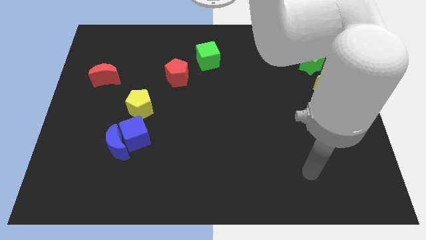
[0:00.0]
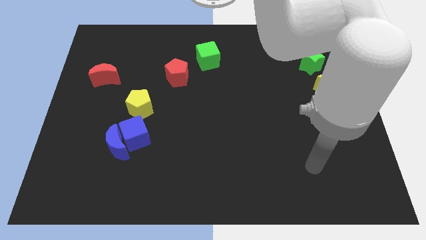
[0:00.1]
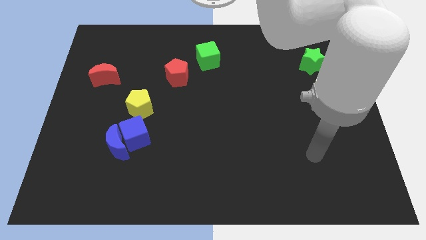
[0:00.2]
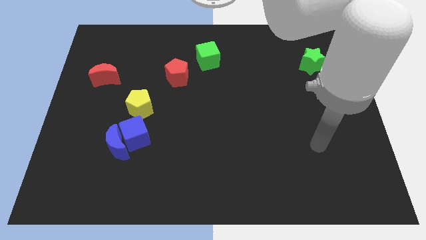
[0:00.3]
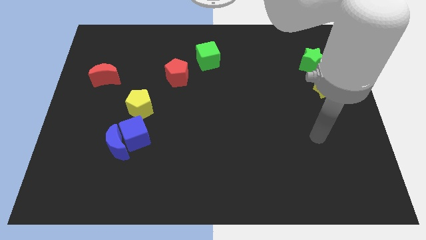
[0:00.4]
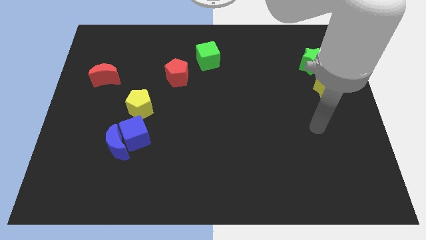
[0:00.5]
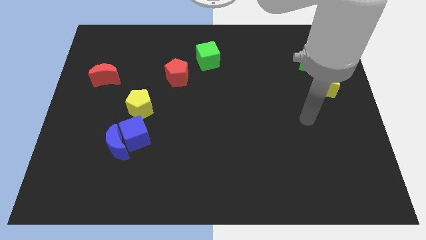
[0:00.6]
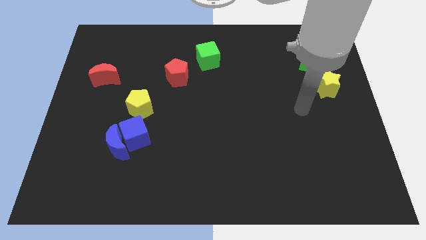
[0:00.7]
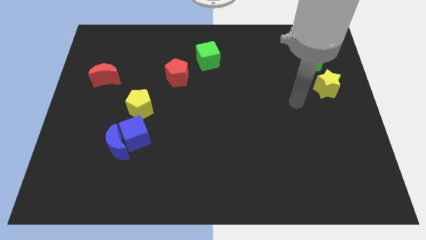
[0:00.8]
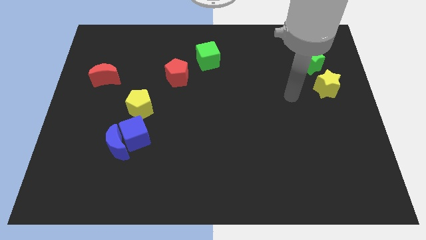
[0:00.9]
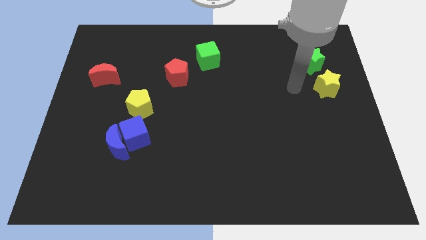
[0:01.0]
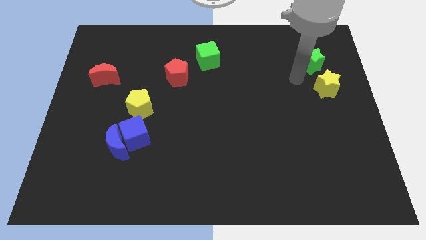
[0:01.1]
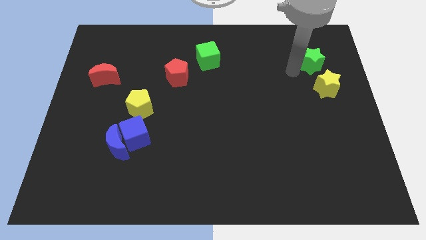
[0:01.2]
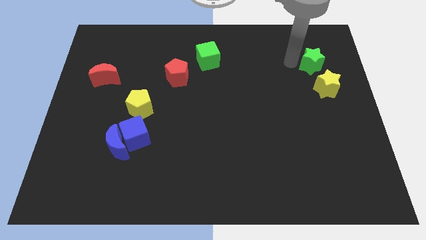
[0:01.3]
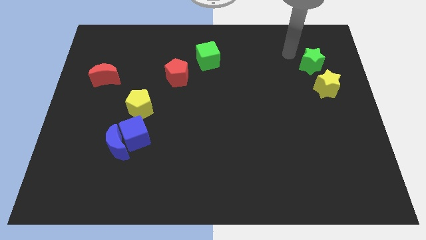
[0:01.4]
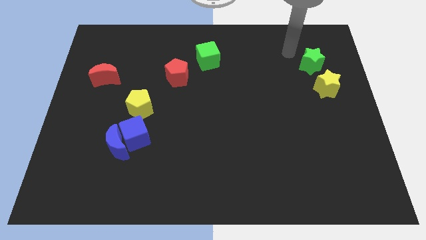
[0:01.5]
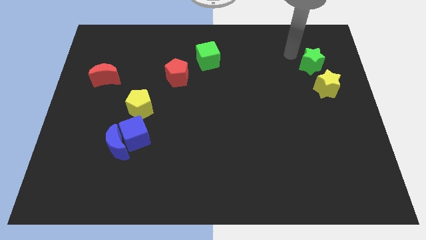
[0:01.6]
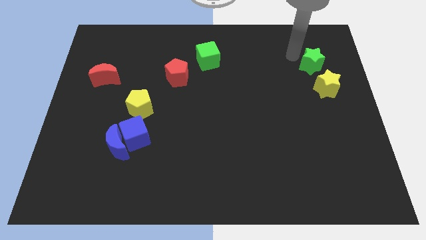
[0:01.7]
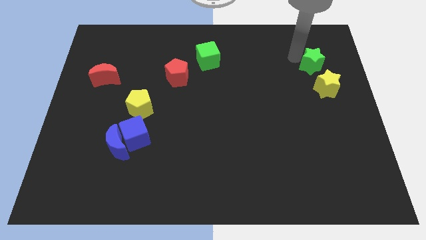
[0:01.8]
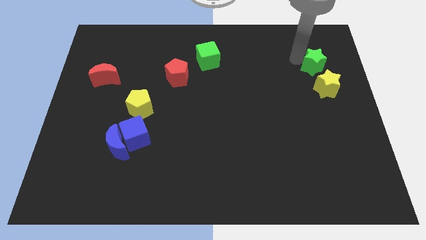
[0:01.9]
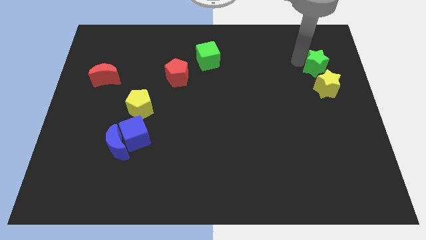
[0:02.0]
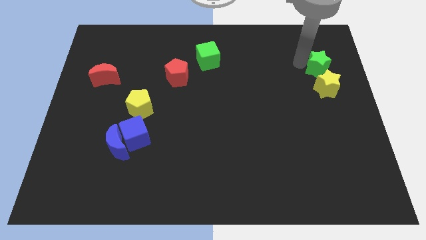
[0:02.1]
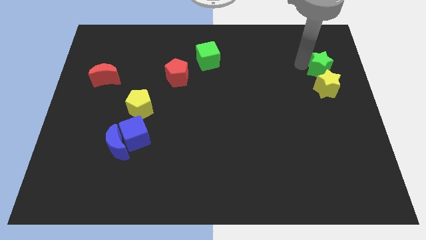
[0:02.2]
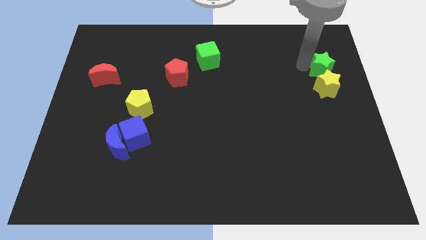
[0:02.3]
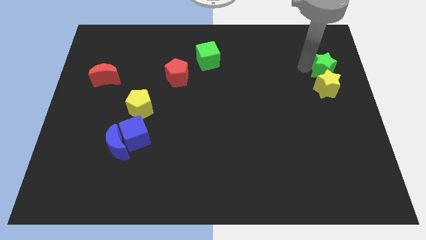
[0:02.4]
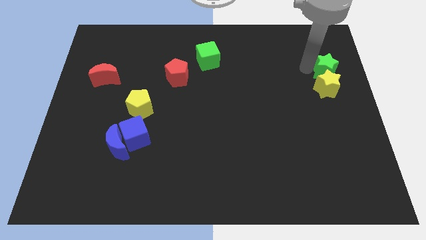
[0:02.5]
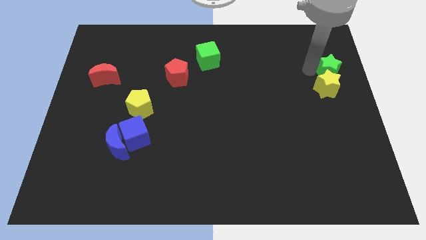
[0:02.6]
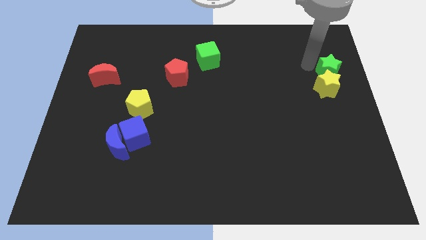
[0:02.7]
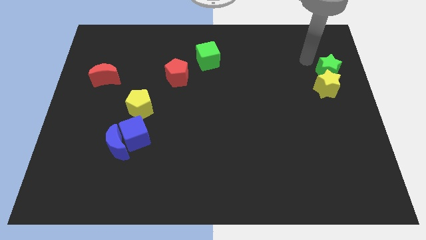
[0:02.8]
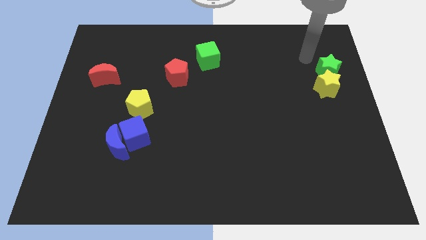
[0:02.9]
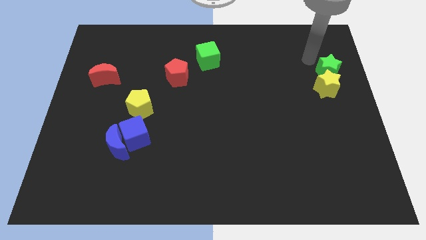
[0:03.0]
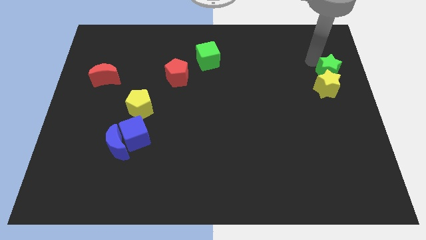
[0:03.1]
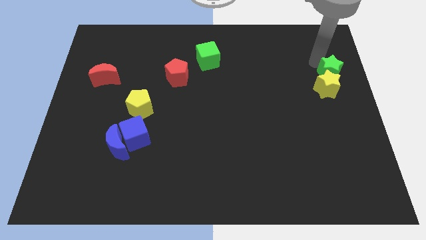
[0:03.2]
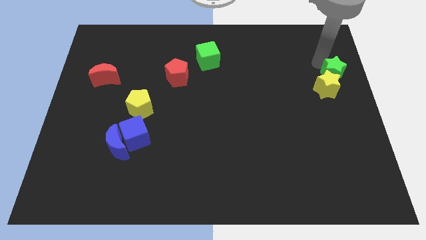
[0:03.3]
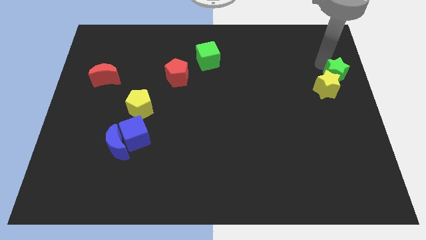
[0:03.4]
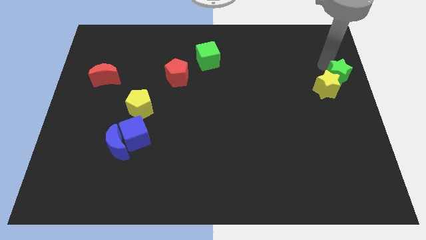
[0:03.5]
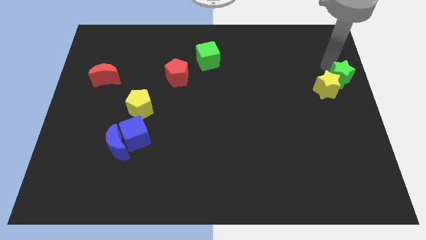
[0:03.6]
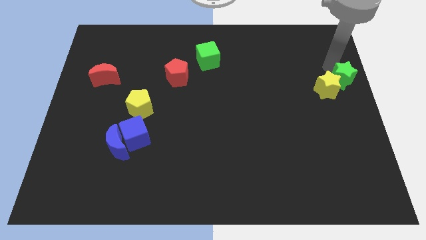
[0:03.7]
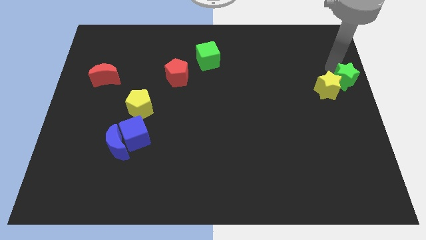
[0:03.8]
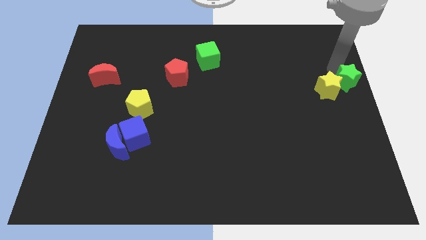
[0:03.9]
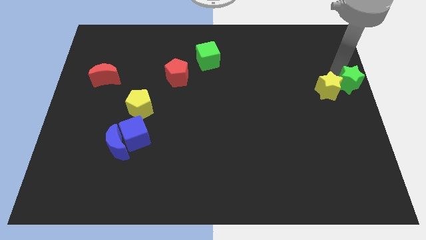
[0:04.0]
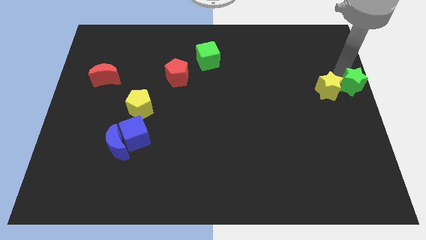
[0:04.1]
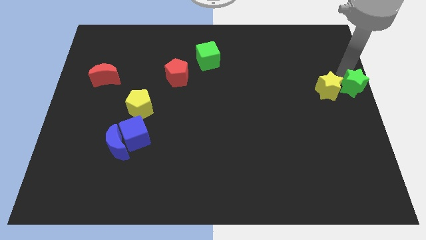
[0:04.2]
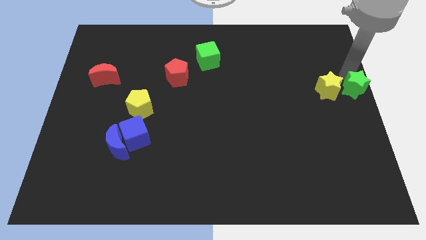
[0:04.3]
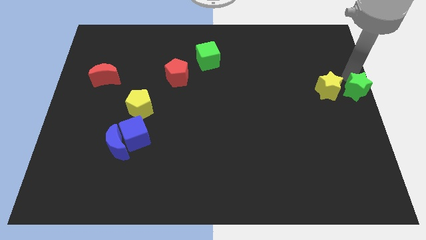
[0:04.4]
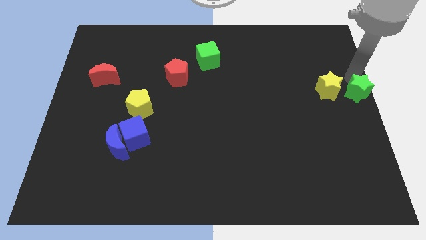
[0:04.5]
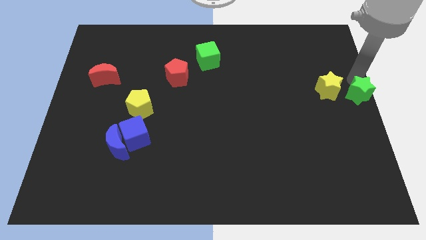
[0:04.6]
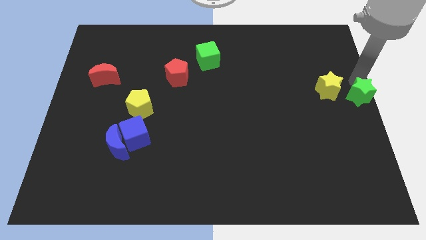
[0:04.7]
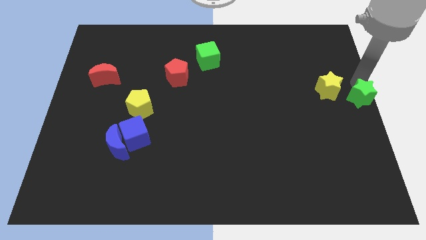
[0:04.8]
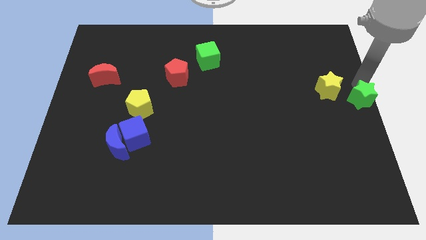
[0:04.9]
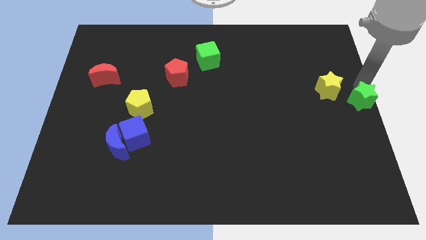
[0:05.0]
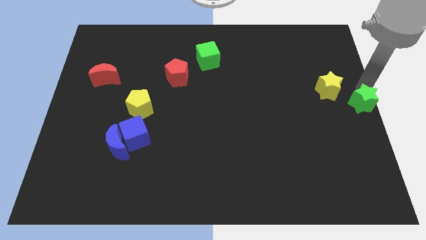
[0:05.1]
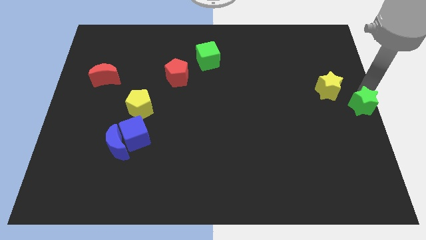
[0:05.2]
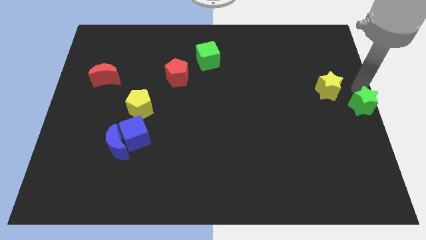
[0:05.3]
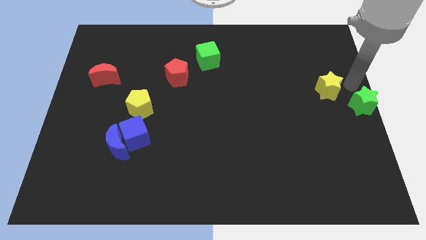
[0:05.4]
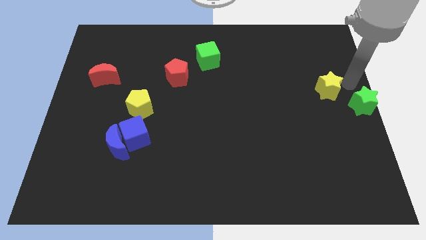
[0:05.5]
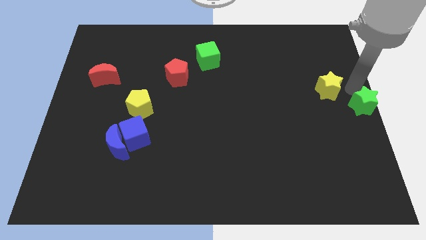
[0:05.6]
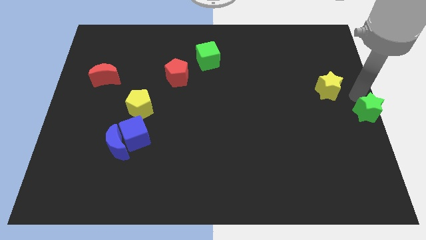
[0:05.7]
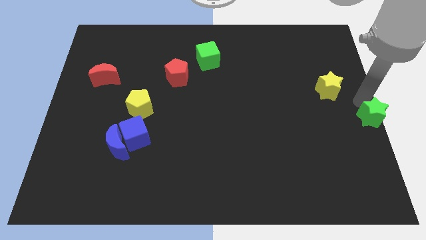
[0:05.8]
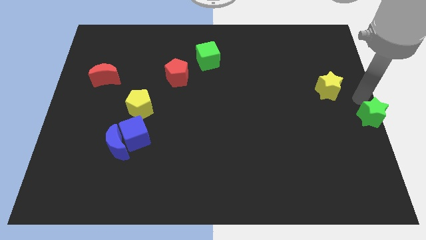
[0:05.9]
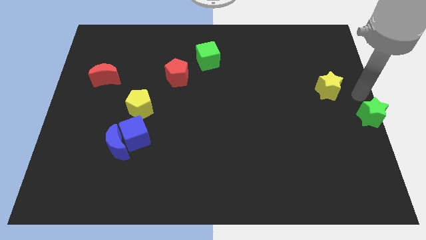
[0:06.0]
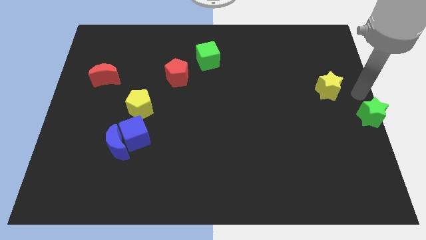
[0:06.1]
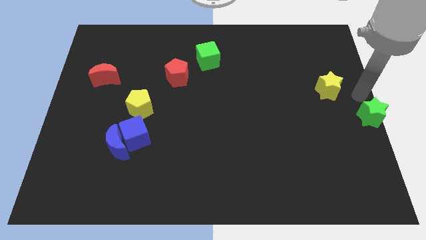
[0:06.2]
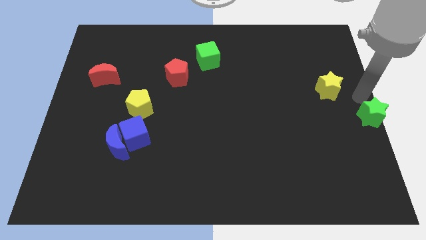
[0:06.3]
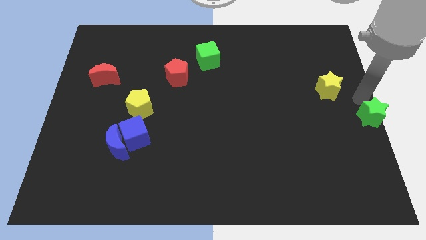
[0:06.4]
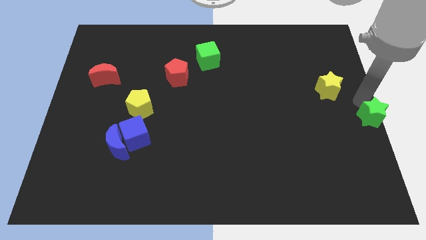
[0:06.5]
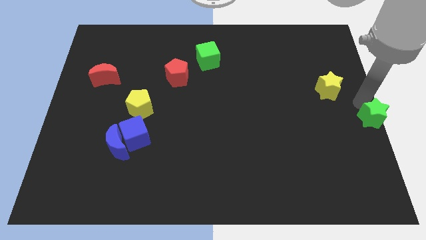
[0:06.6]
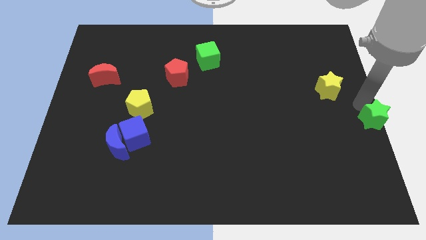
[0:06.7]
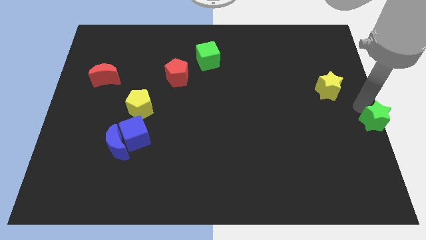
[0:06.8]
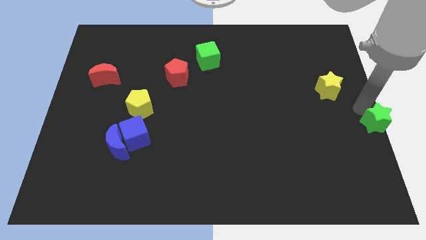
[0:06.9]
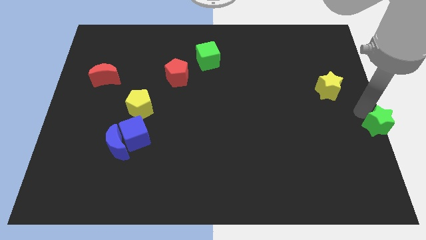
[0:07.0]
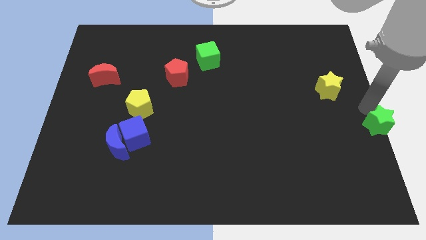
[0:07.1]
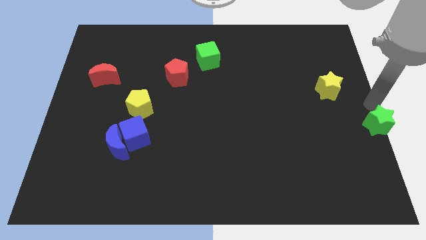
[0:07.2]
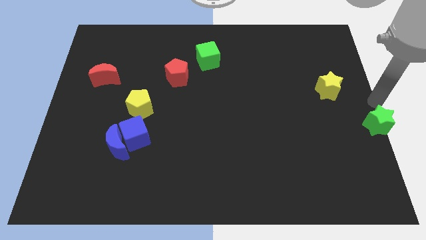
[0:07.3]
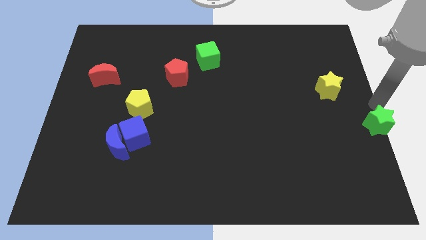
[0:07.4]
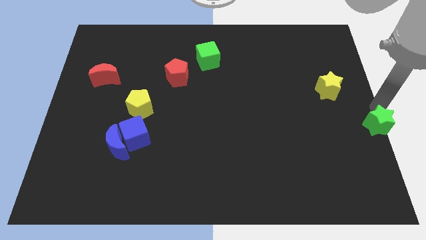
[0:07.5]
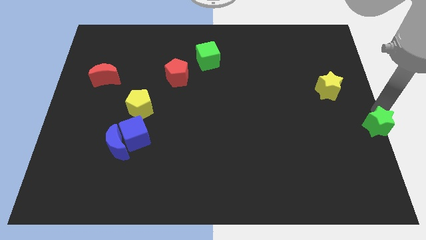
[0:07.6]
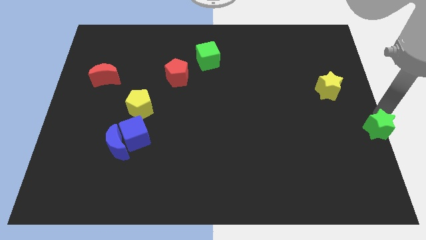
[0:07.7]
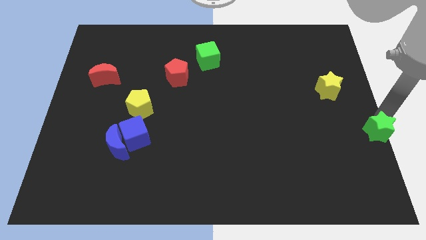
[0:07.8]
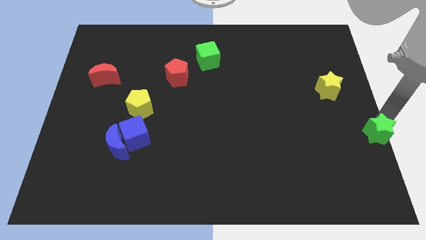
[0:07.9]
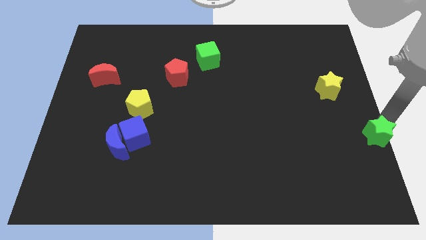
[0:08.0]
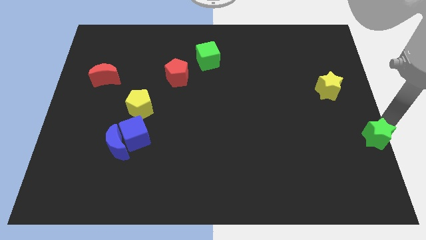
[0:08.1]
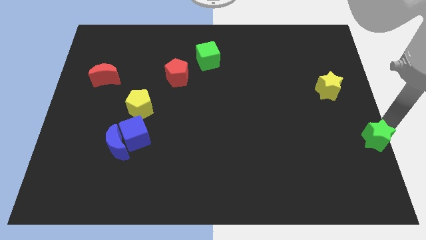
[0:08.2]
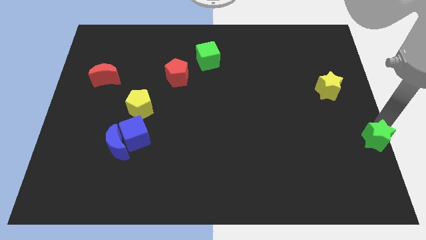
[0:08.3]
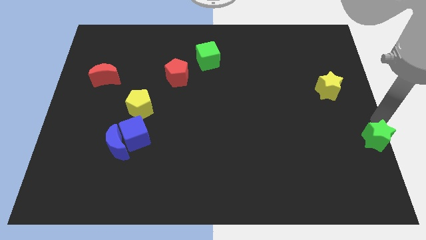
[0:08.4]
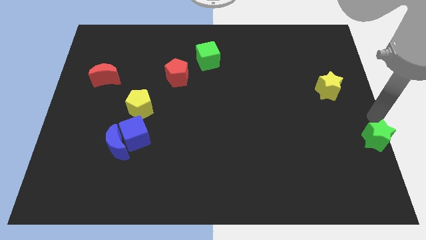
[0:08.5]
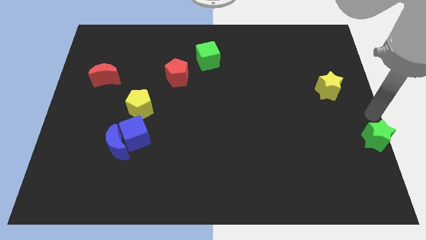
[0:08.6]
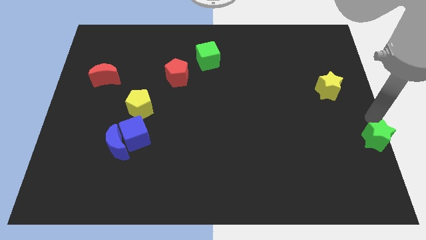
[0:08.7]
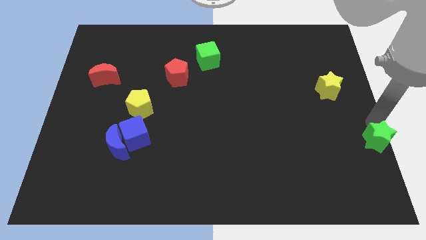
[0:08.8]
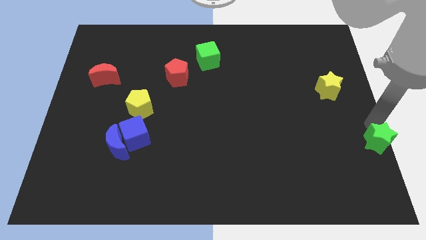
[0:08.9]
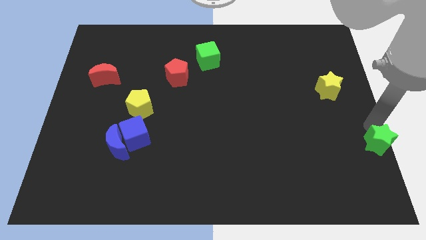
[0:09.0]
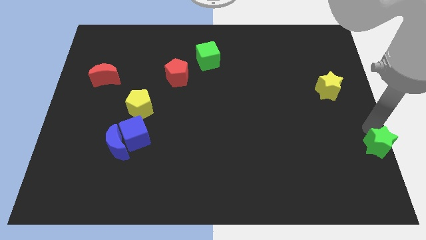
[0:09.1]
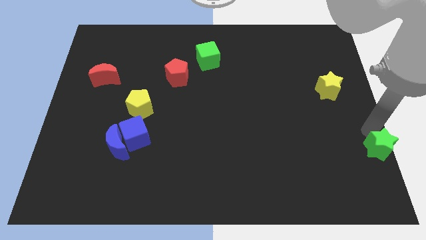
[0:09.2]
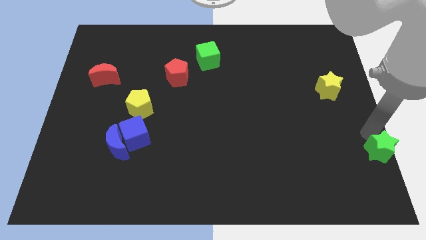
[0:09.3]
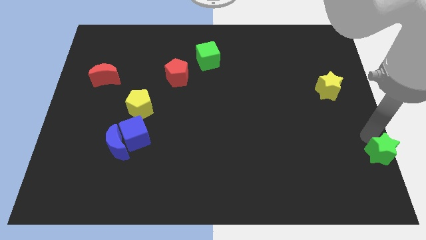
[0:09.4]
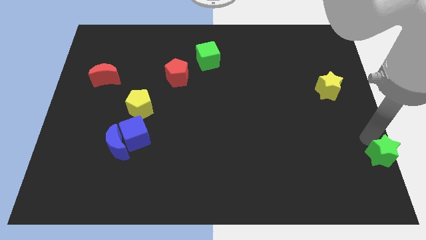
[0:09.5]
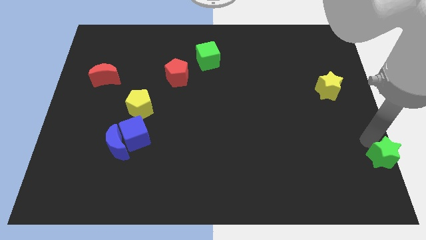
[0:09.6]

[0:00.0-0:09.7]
put the green star to the bottom right
